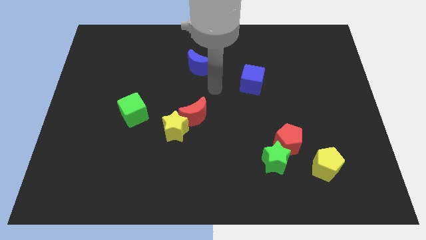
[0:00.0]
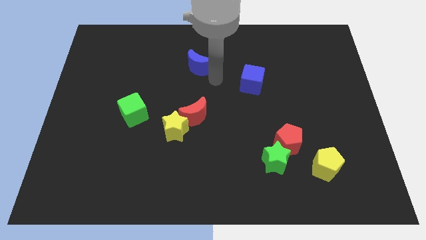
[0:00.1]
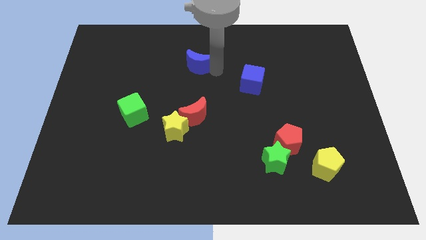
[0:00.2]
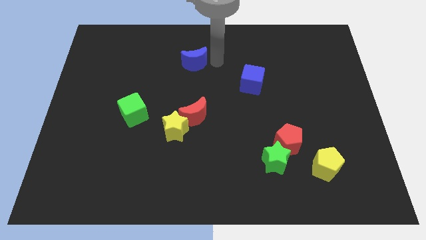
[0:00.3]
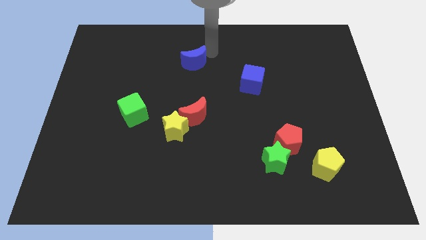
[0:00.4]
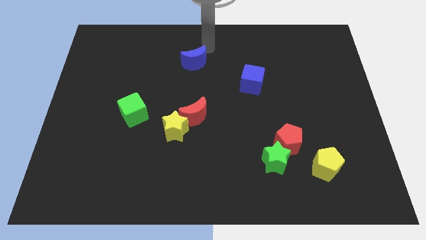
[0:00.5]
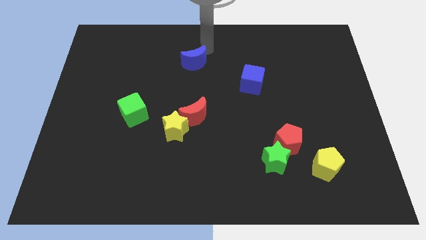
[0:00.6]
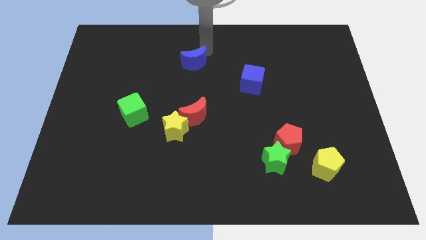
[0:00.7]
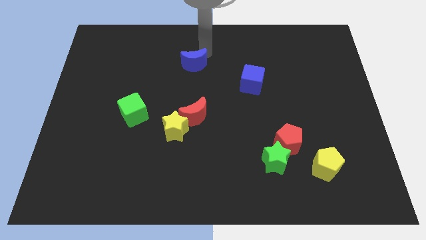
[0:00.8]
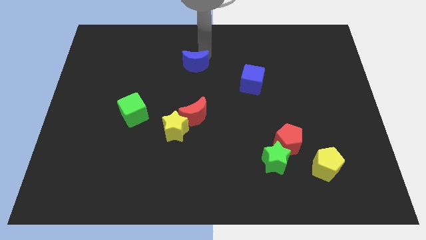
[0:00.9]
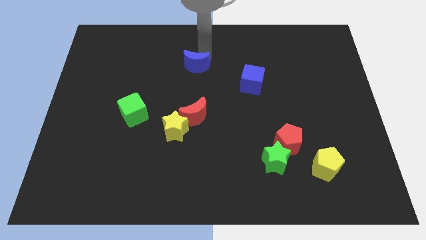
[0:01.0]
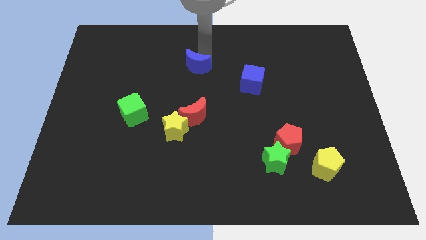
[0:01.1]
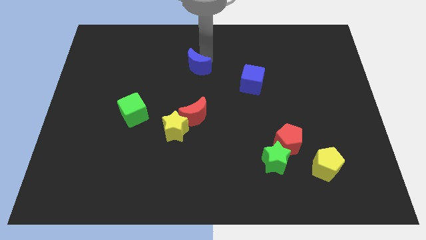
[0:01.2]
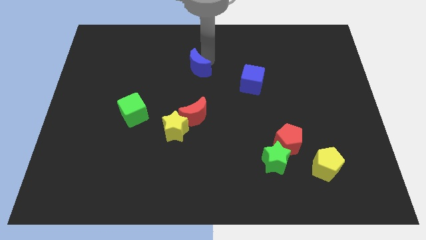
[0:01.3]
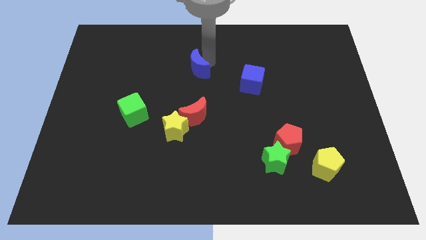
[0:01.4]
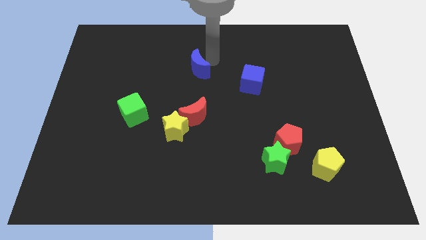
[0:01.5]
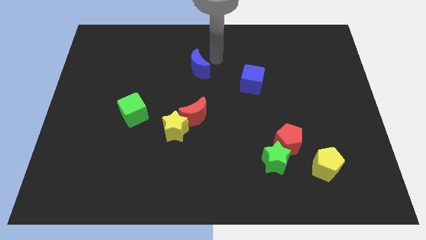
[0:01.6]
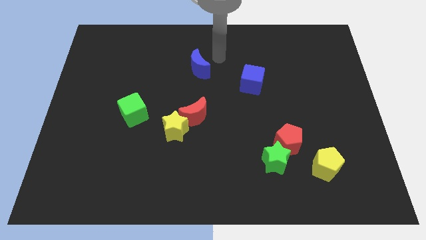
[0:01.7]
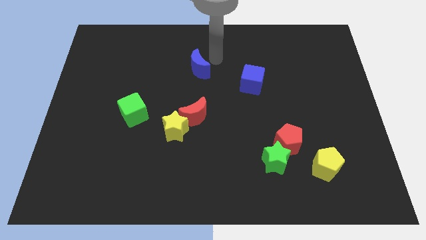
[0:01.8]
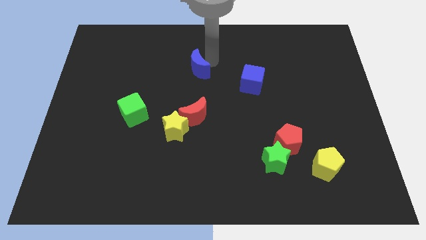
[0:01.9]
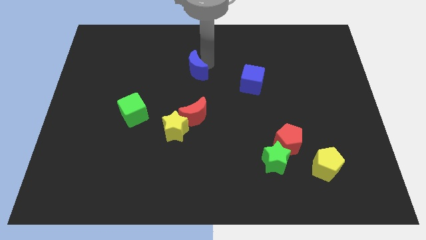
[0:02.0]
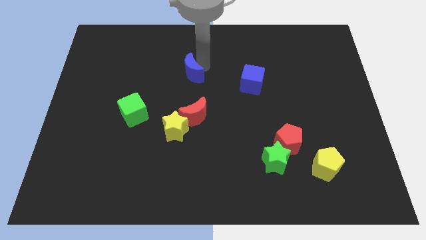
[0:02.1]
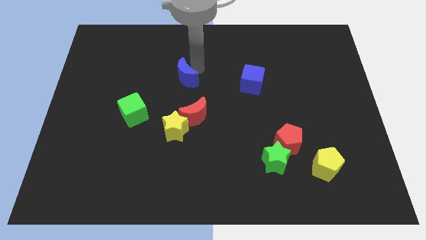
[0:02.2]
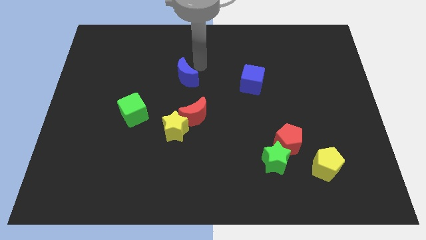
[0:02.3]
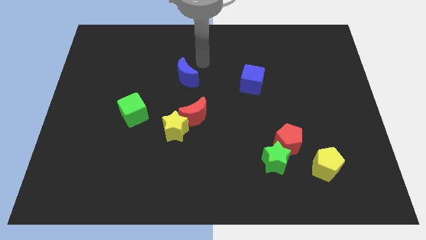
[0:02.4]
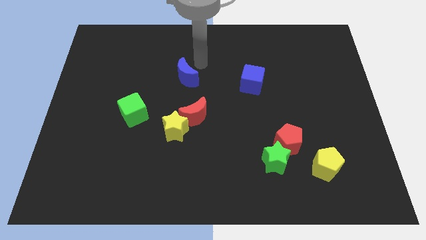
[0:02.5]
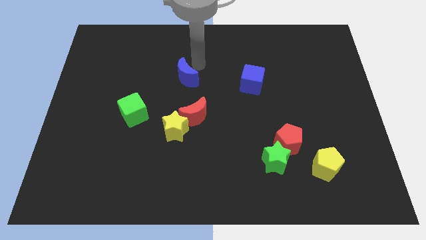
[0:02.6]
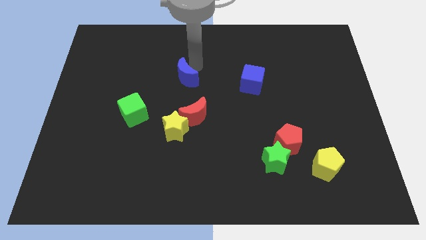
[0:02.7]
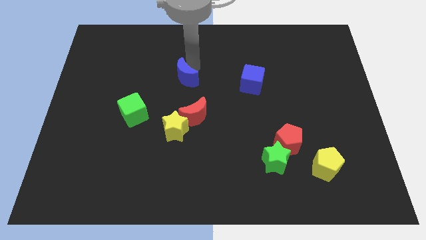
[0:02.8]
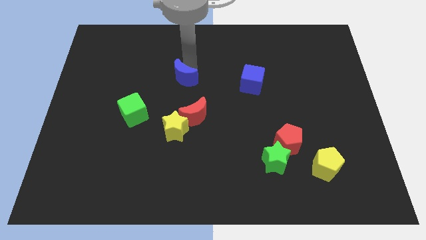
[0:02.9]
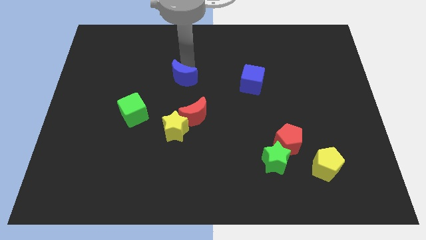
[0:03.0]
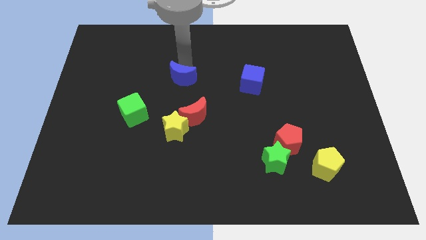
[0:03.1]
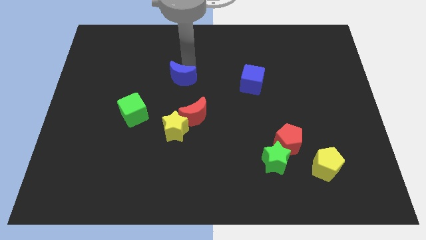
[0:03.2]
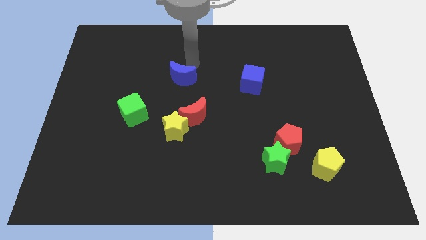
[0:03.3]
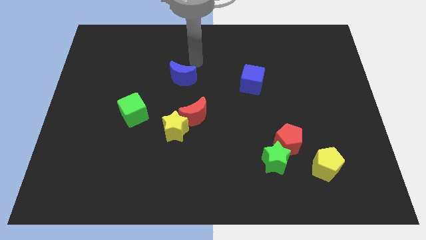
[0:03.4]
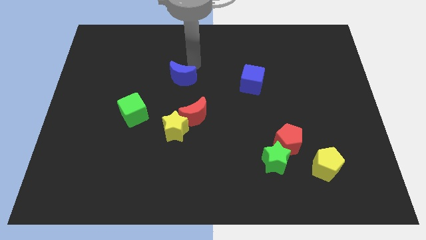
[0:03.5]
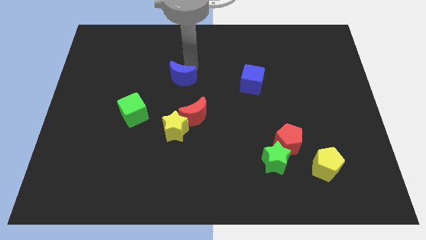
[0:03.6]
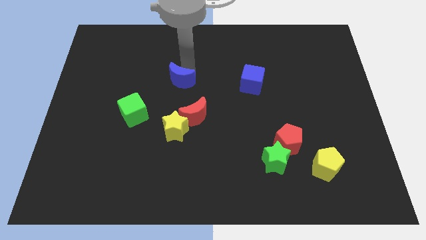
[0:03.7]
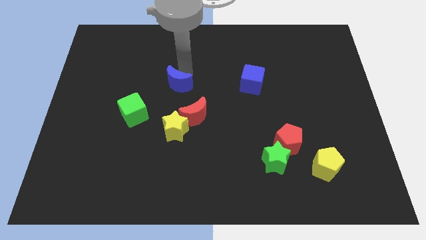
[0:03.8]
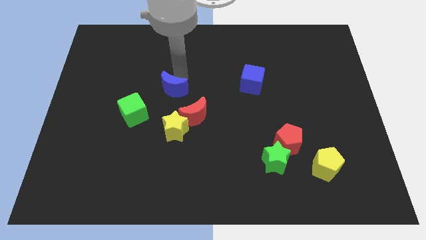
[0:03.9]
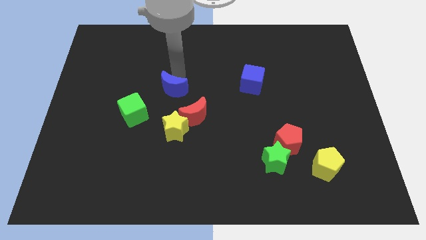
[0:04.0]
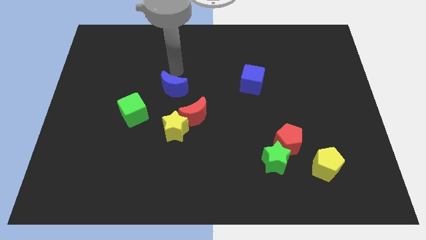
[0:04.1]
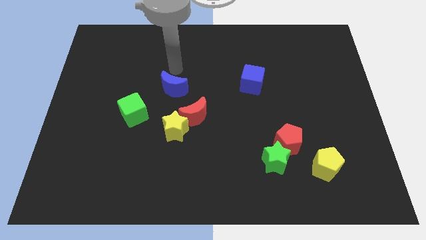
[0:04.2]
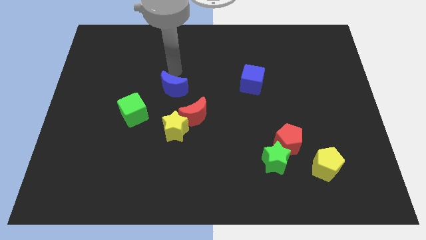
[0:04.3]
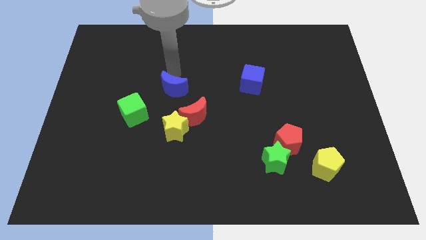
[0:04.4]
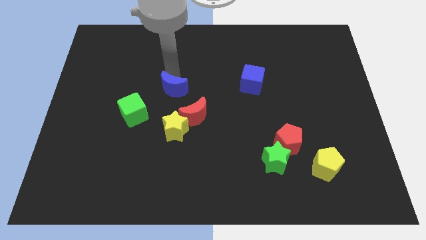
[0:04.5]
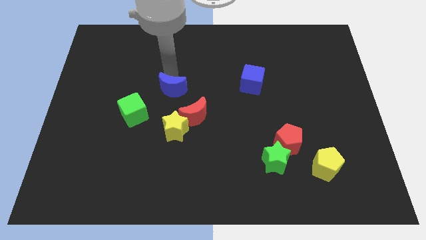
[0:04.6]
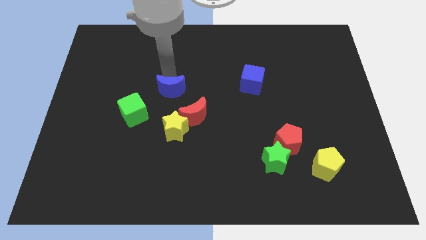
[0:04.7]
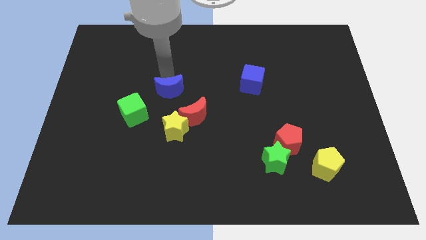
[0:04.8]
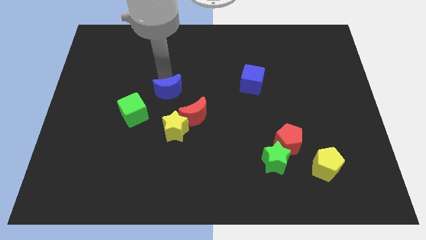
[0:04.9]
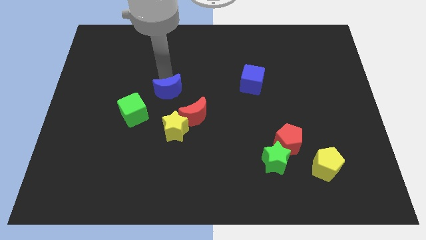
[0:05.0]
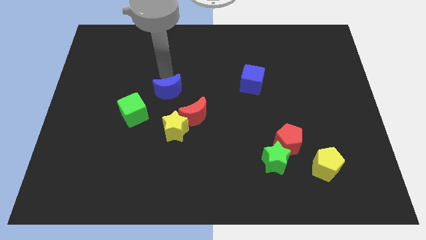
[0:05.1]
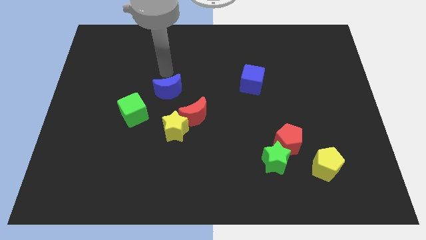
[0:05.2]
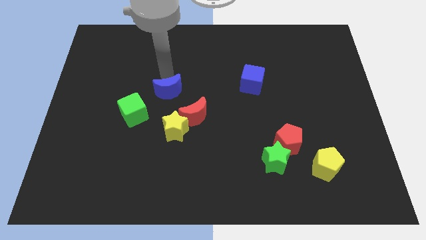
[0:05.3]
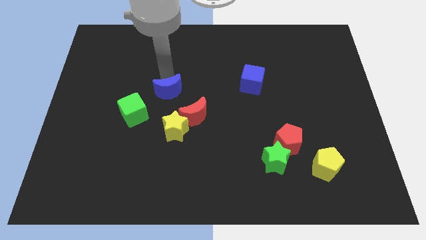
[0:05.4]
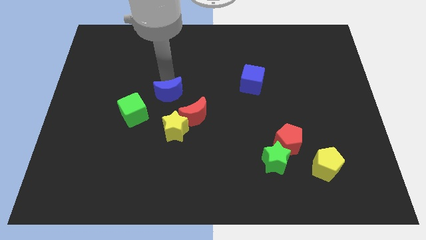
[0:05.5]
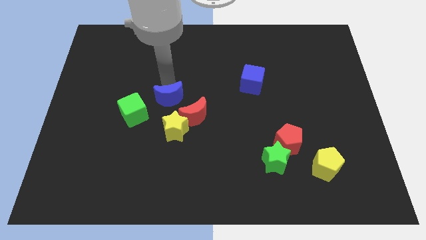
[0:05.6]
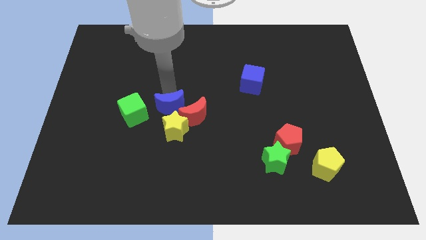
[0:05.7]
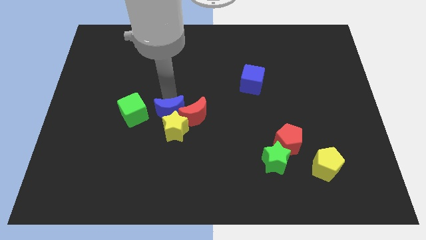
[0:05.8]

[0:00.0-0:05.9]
push the blue moon to the yellow star

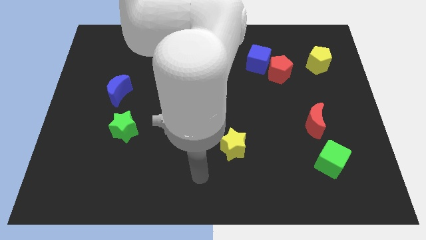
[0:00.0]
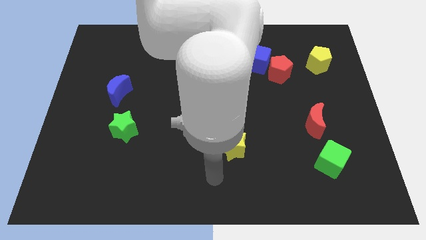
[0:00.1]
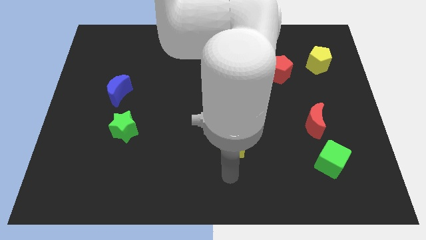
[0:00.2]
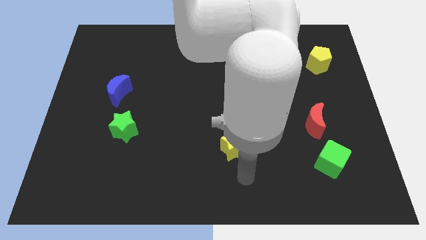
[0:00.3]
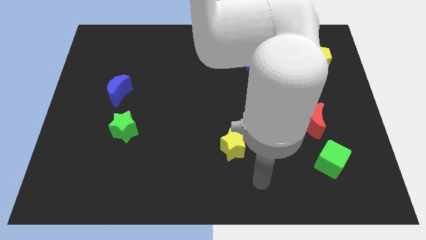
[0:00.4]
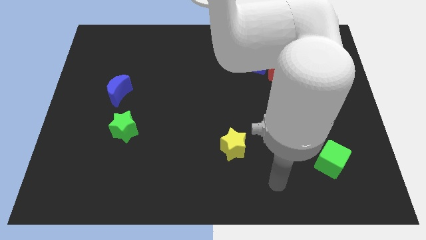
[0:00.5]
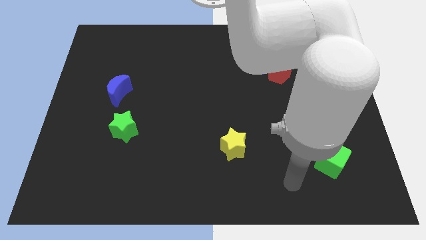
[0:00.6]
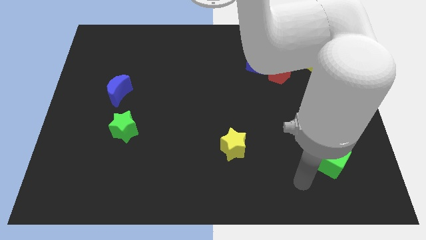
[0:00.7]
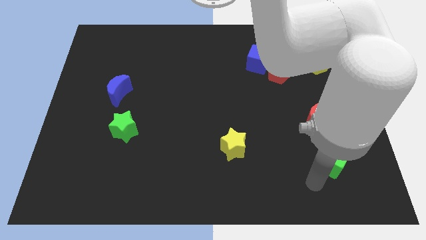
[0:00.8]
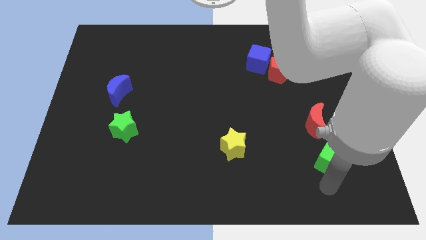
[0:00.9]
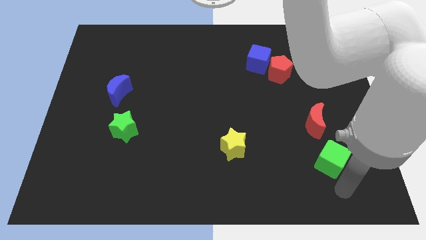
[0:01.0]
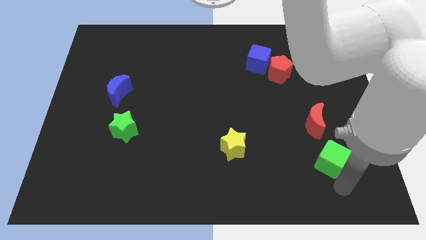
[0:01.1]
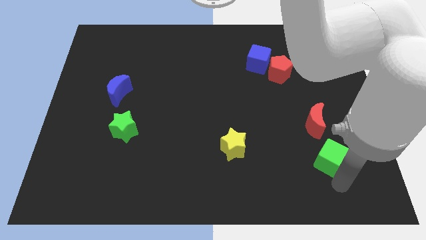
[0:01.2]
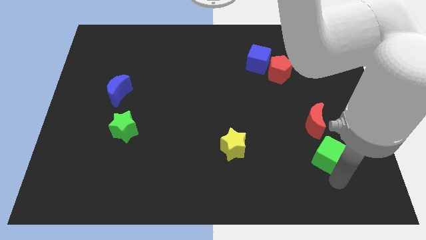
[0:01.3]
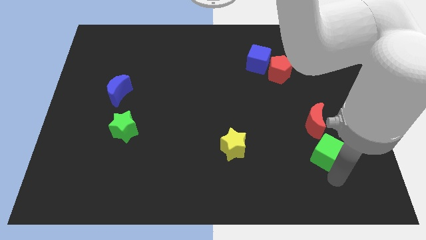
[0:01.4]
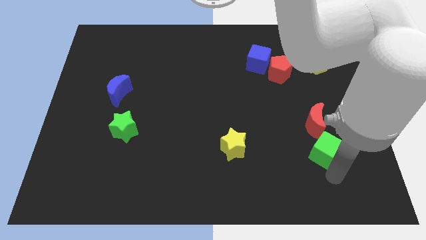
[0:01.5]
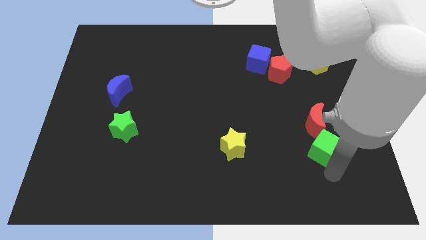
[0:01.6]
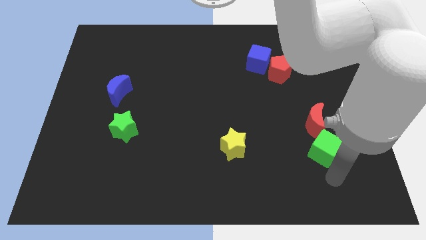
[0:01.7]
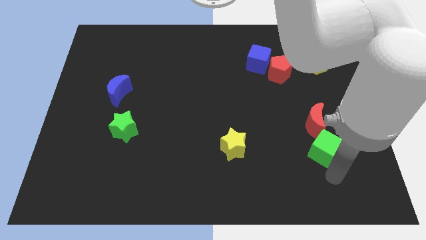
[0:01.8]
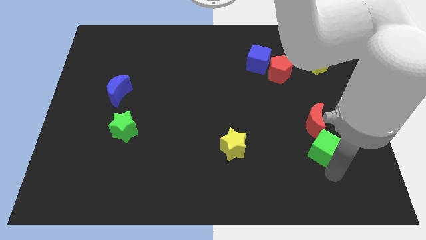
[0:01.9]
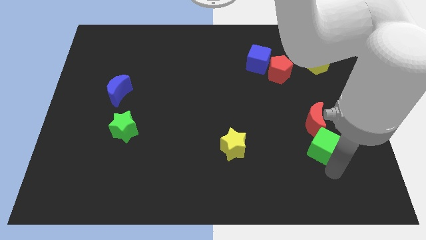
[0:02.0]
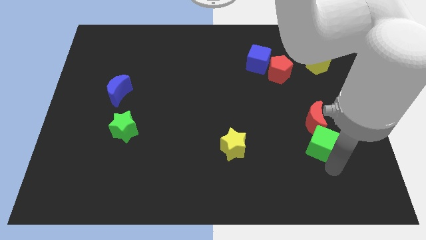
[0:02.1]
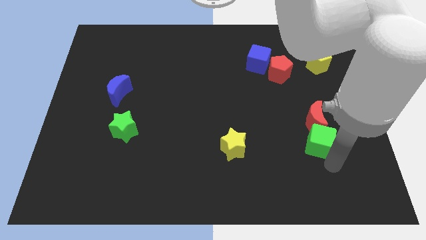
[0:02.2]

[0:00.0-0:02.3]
push the green cube close to the red moon

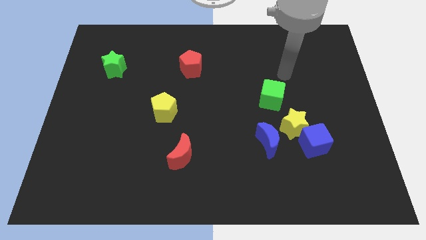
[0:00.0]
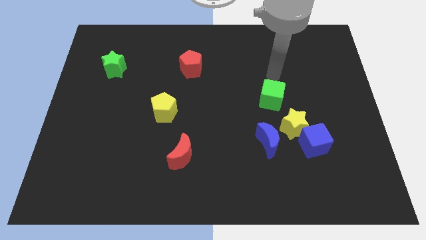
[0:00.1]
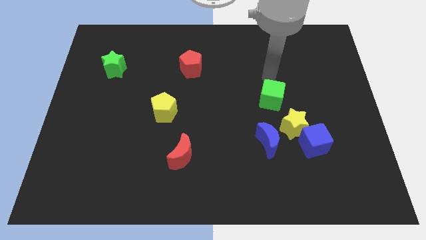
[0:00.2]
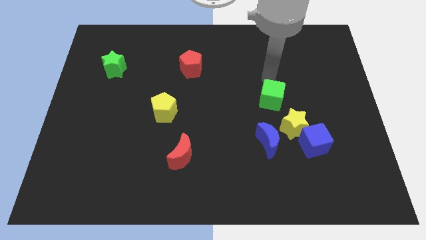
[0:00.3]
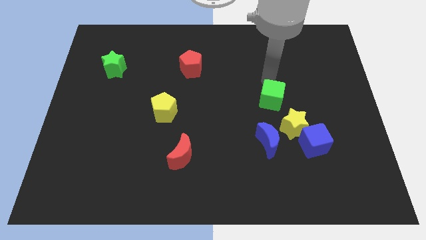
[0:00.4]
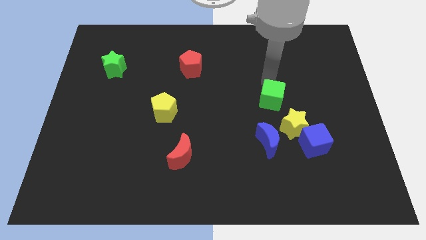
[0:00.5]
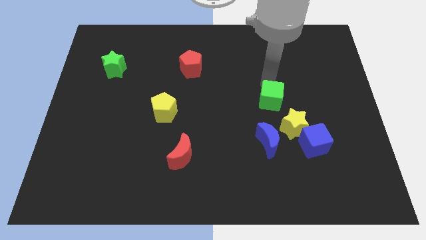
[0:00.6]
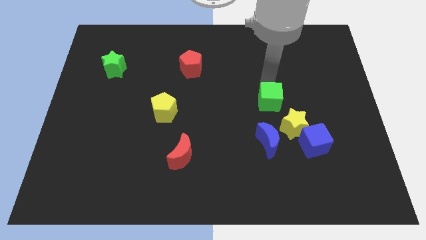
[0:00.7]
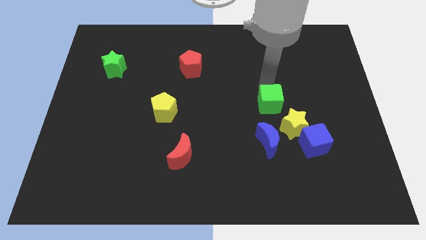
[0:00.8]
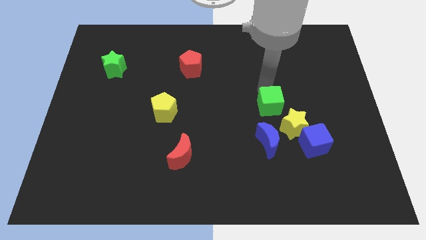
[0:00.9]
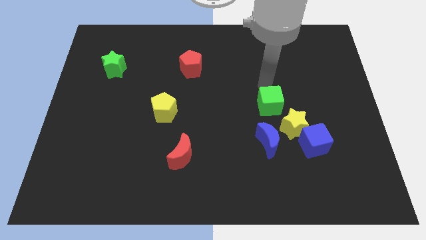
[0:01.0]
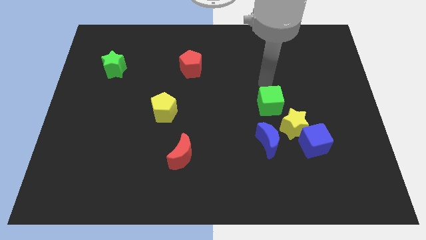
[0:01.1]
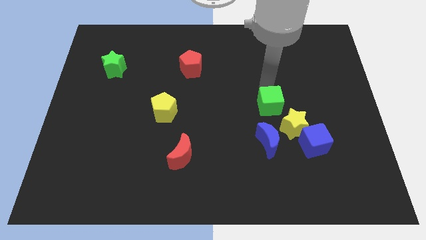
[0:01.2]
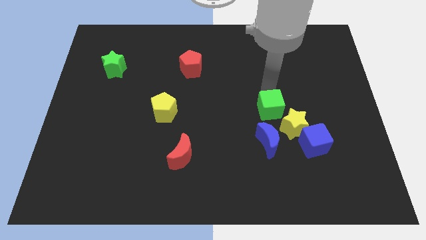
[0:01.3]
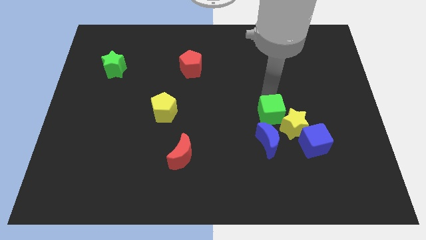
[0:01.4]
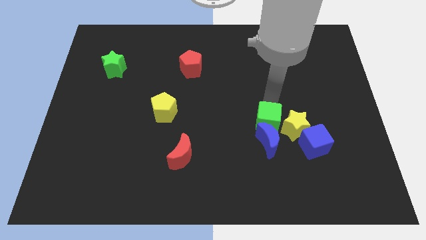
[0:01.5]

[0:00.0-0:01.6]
slide the green cube close to the blue moon
